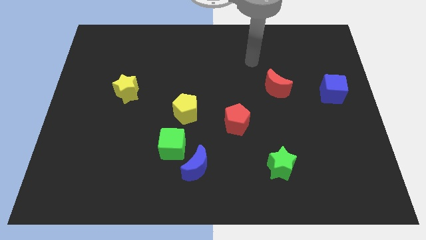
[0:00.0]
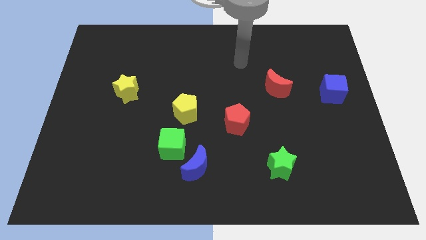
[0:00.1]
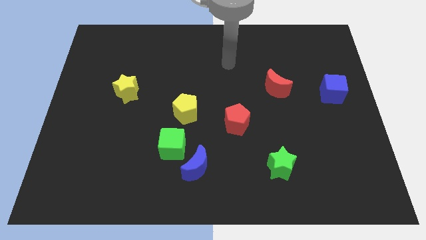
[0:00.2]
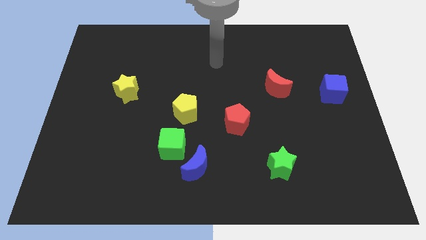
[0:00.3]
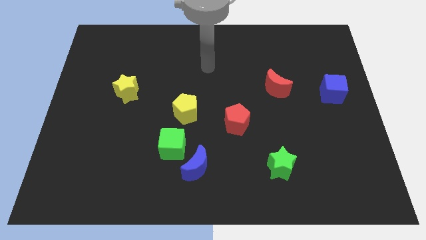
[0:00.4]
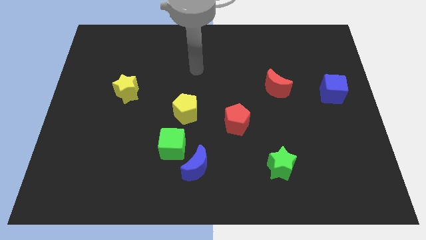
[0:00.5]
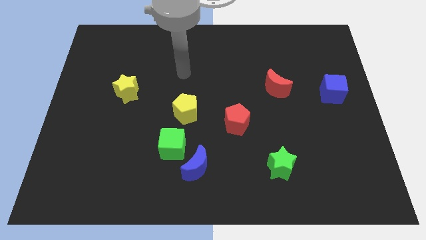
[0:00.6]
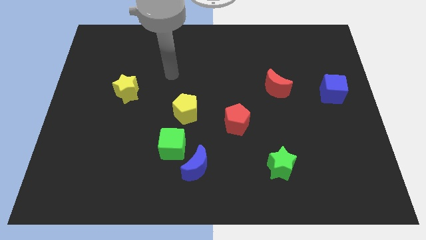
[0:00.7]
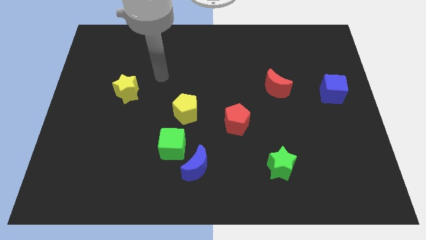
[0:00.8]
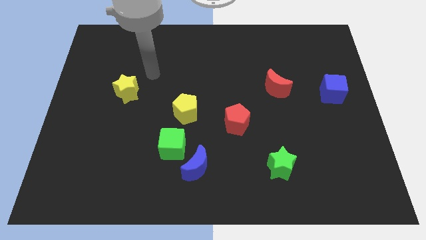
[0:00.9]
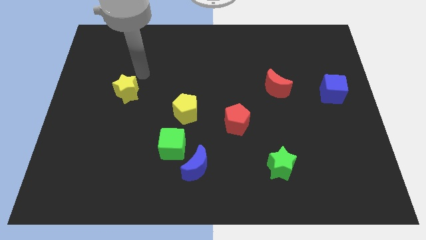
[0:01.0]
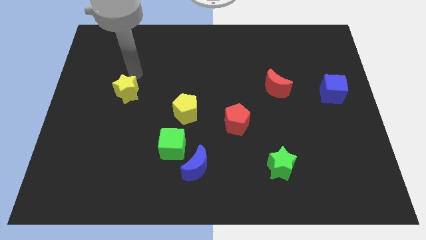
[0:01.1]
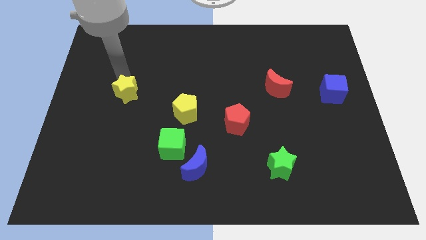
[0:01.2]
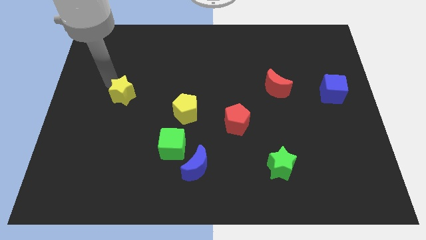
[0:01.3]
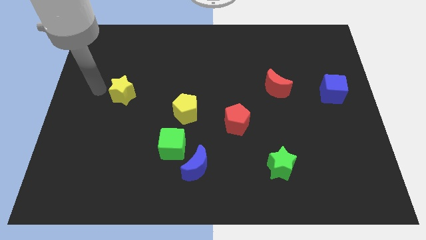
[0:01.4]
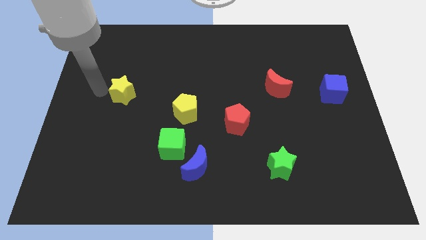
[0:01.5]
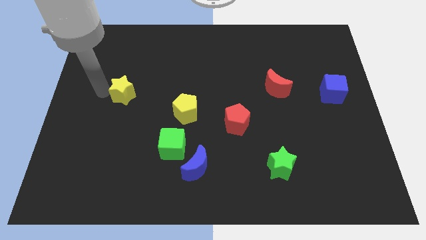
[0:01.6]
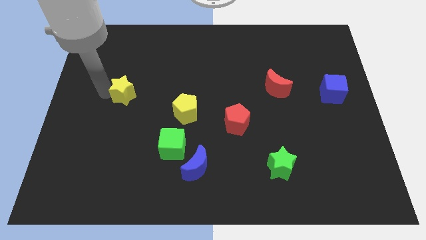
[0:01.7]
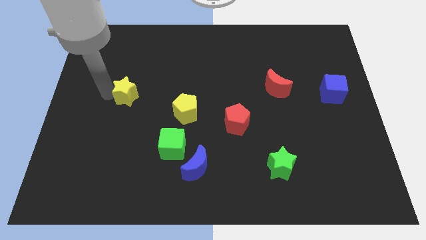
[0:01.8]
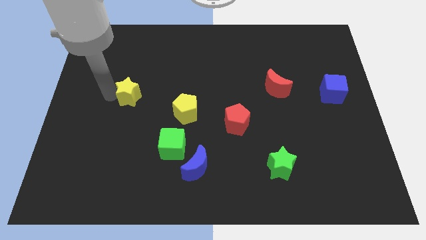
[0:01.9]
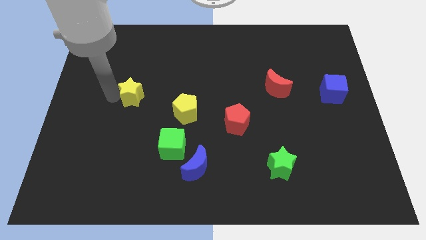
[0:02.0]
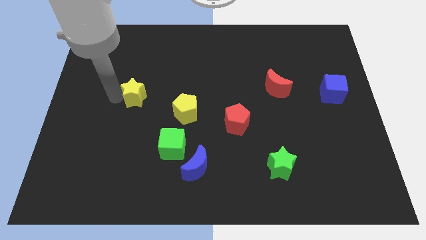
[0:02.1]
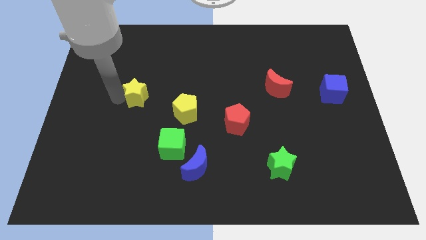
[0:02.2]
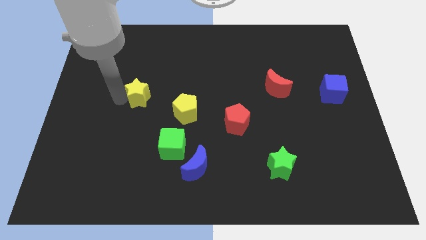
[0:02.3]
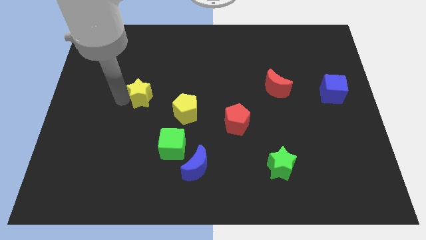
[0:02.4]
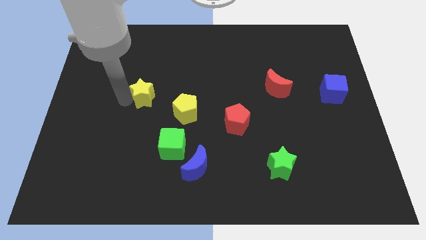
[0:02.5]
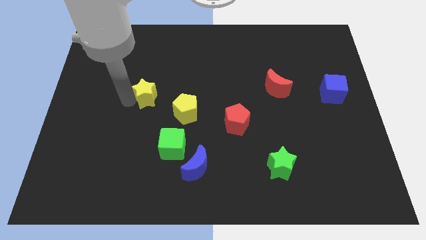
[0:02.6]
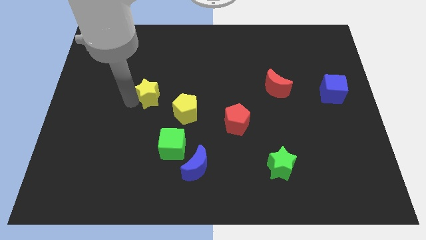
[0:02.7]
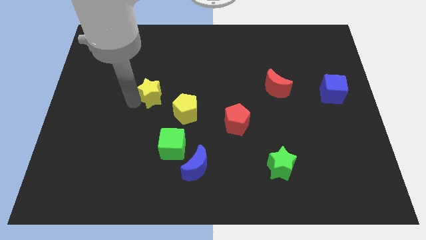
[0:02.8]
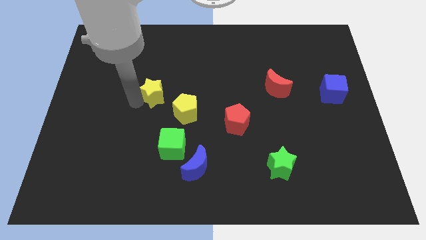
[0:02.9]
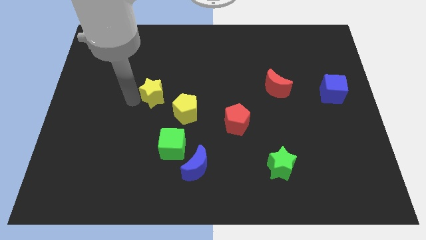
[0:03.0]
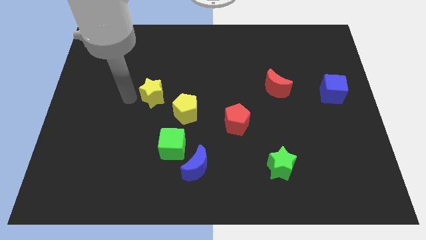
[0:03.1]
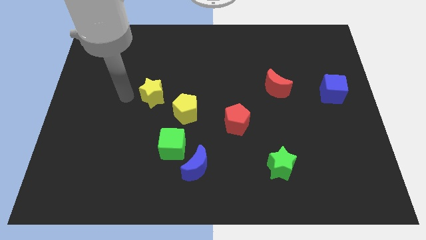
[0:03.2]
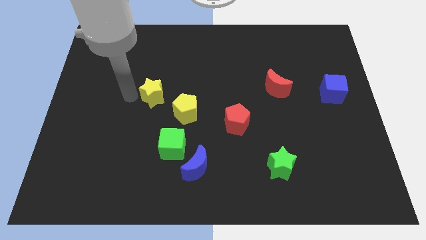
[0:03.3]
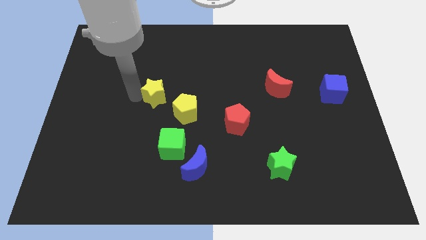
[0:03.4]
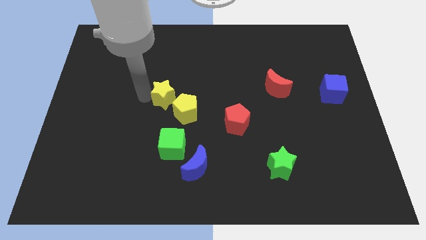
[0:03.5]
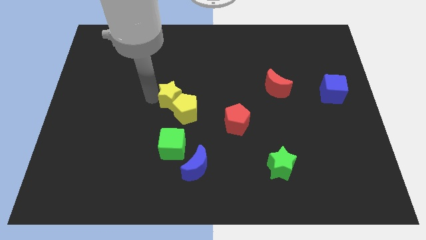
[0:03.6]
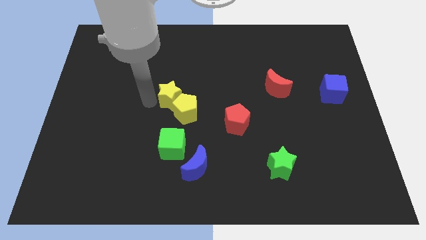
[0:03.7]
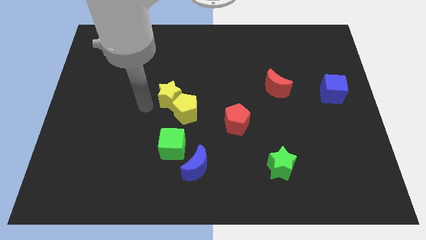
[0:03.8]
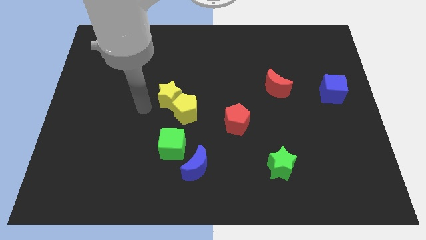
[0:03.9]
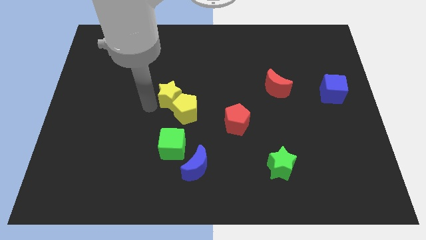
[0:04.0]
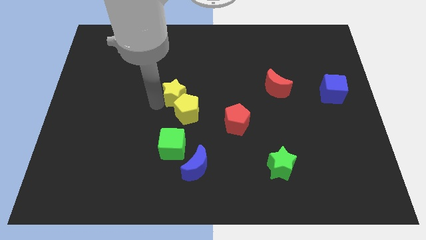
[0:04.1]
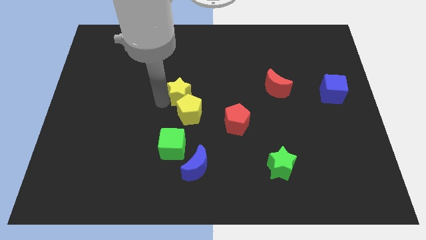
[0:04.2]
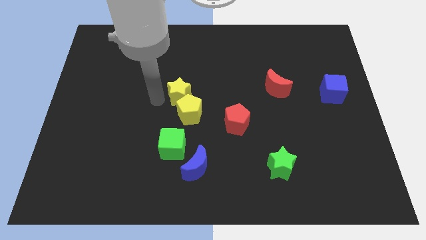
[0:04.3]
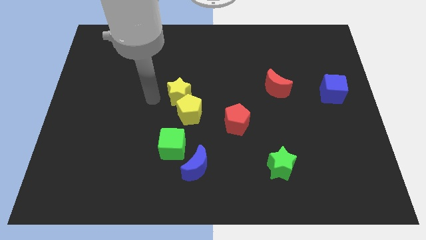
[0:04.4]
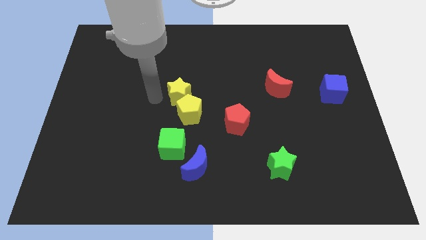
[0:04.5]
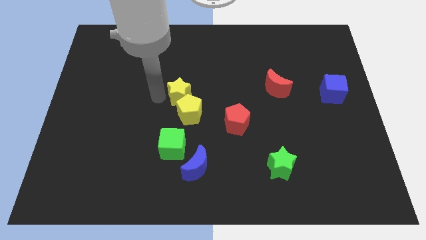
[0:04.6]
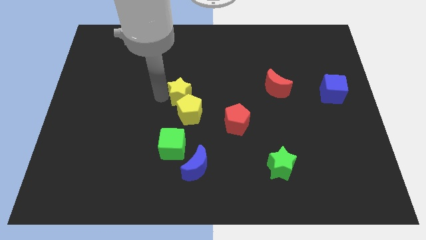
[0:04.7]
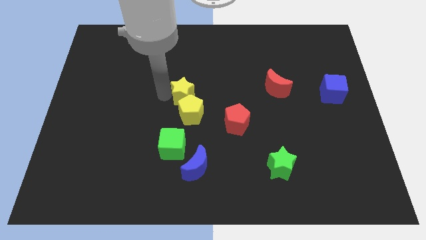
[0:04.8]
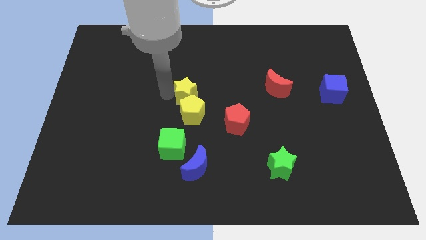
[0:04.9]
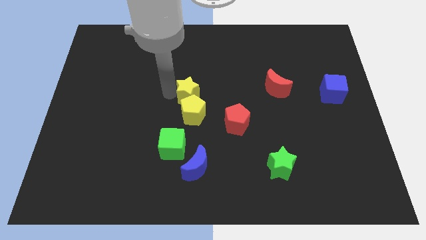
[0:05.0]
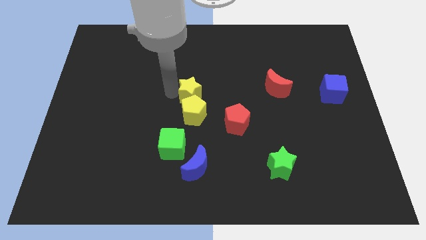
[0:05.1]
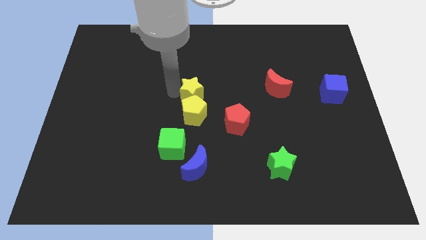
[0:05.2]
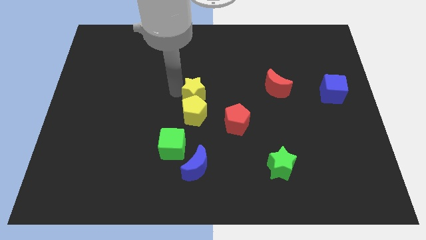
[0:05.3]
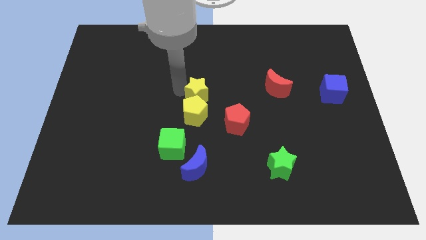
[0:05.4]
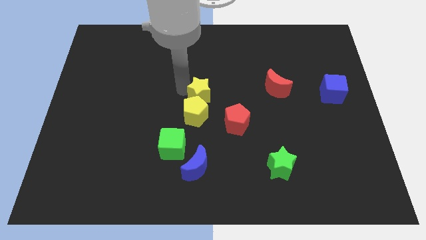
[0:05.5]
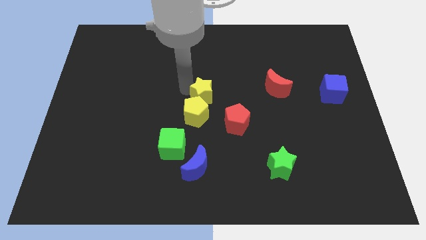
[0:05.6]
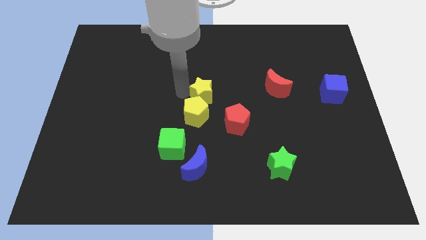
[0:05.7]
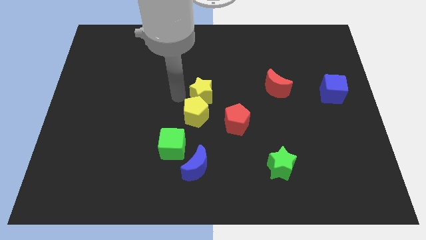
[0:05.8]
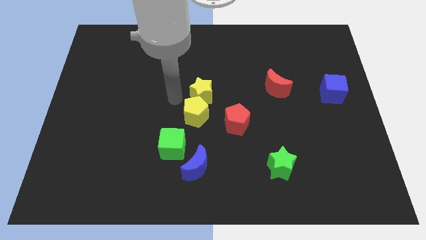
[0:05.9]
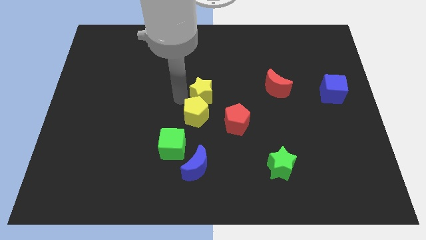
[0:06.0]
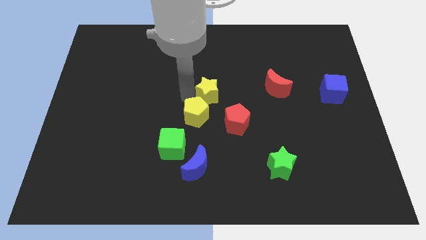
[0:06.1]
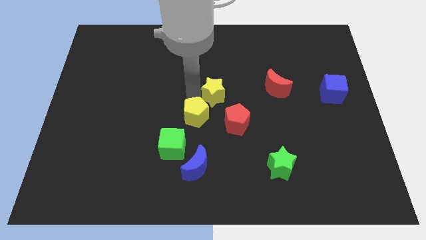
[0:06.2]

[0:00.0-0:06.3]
move the yellow star right

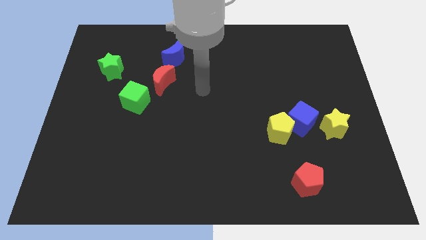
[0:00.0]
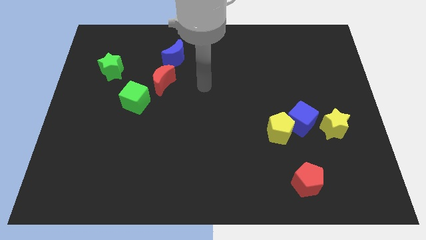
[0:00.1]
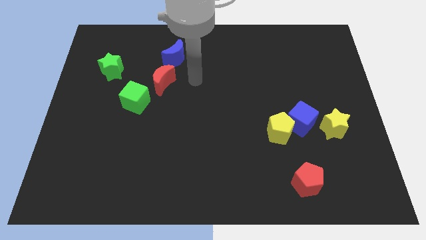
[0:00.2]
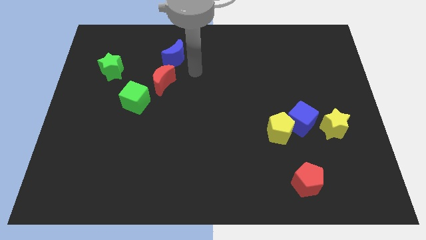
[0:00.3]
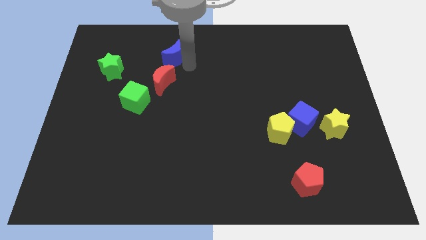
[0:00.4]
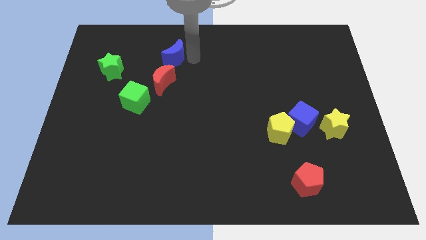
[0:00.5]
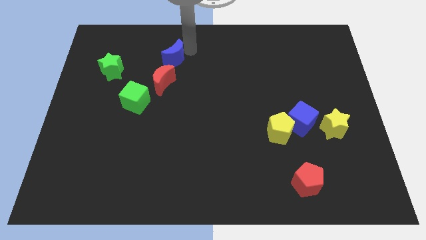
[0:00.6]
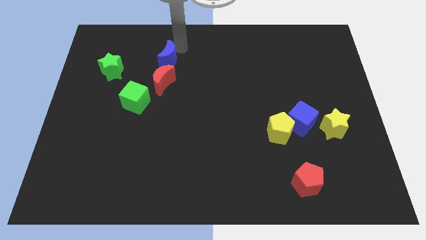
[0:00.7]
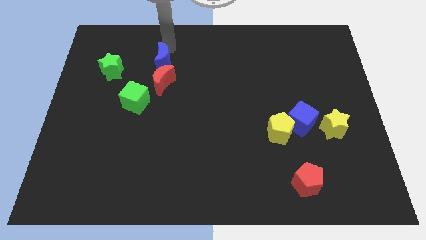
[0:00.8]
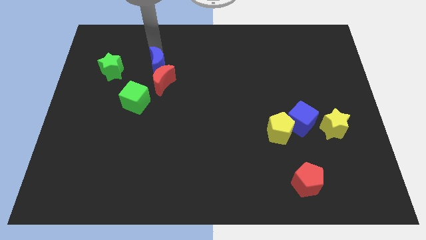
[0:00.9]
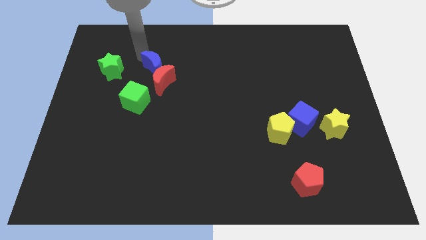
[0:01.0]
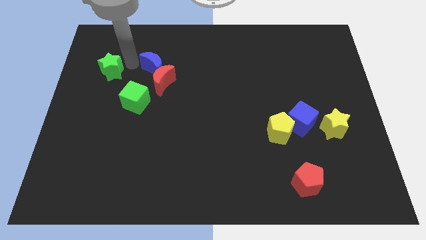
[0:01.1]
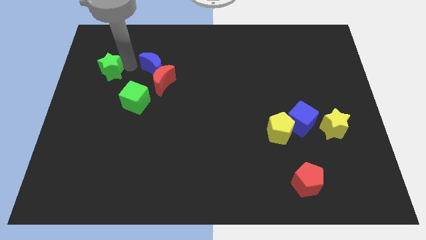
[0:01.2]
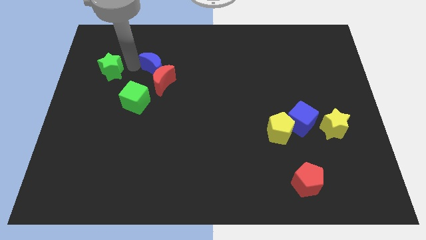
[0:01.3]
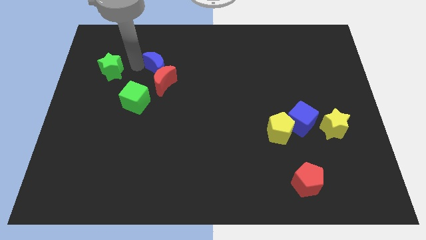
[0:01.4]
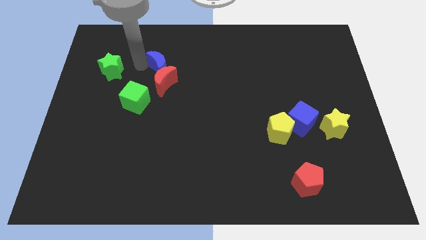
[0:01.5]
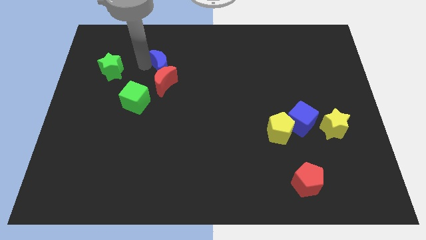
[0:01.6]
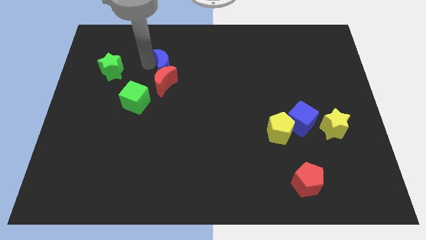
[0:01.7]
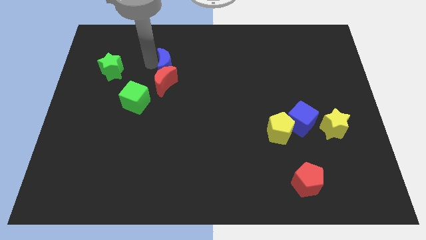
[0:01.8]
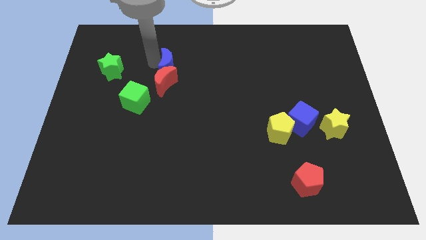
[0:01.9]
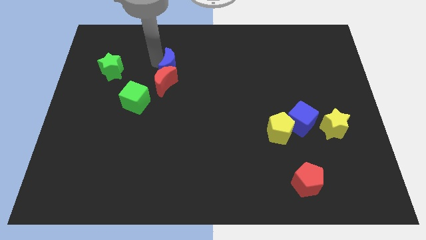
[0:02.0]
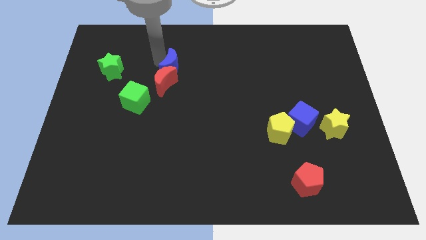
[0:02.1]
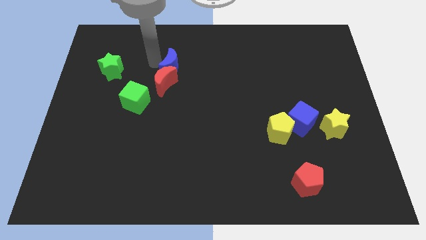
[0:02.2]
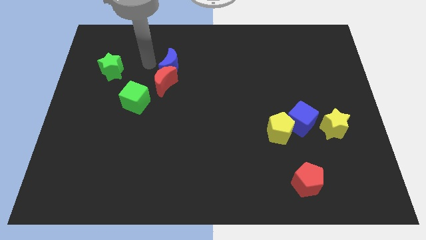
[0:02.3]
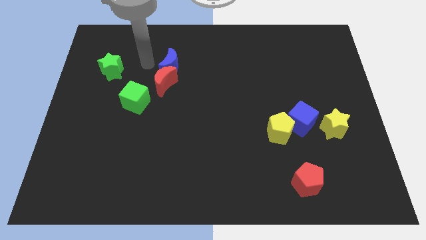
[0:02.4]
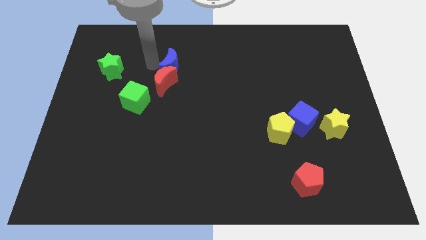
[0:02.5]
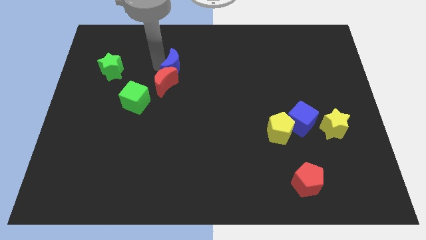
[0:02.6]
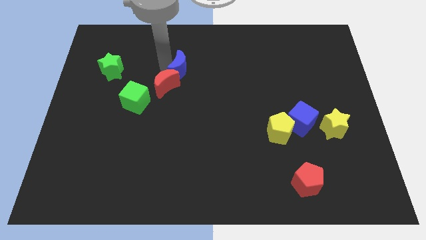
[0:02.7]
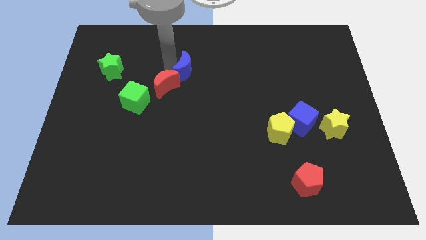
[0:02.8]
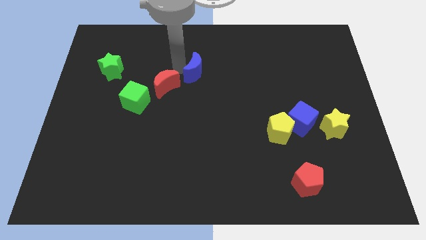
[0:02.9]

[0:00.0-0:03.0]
slightly push the blue moon diagonally down and right
